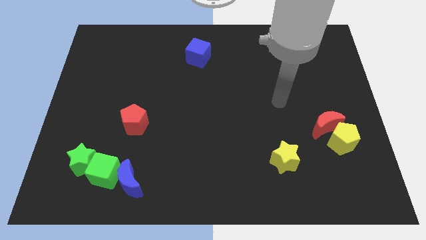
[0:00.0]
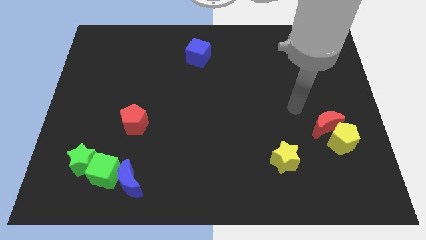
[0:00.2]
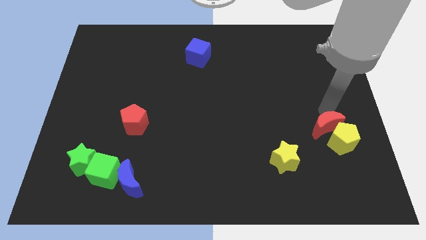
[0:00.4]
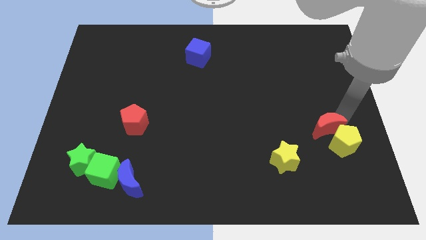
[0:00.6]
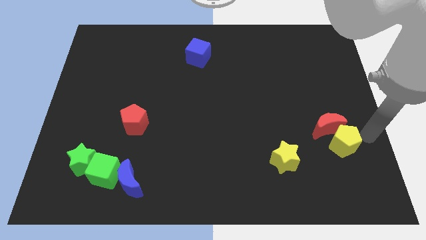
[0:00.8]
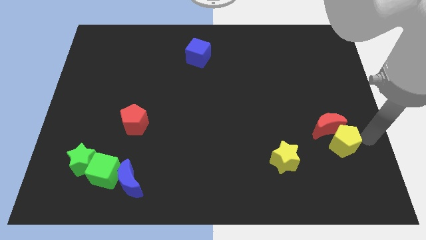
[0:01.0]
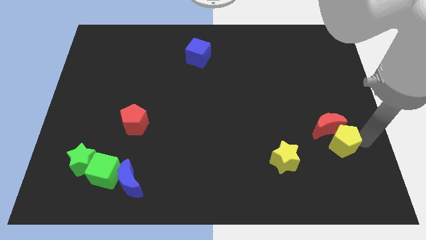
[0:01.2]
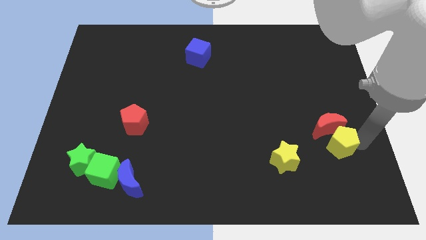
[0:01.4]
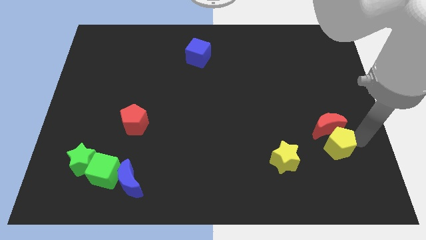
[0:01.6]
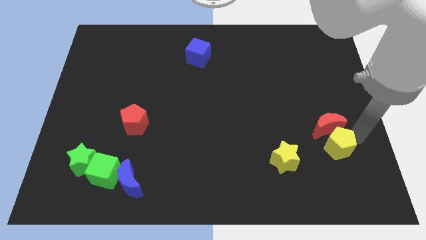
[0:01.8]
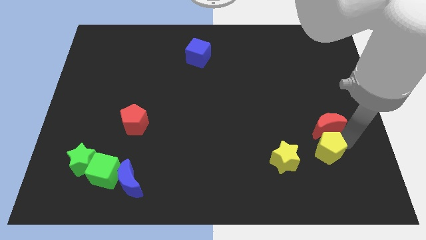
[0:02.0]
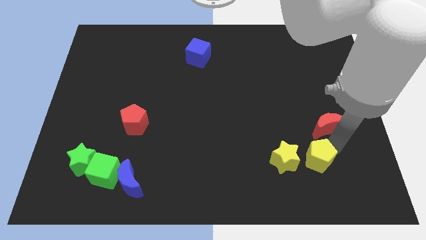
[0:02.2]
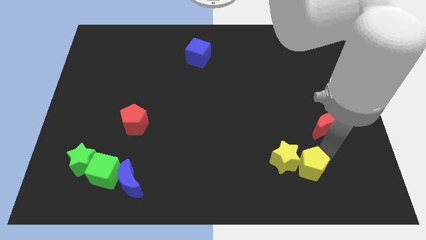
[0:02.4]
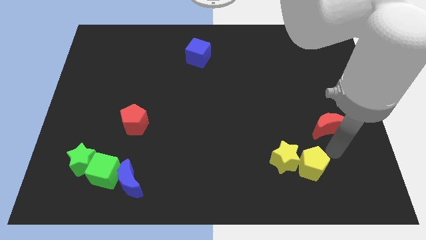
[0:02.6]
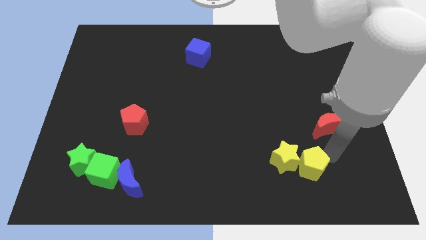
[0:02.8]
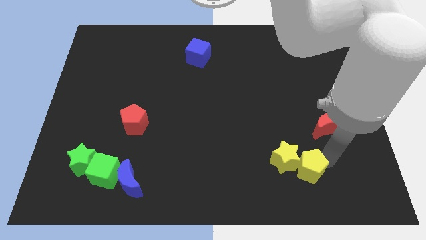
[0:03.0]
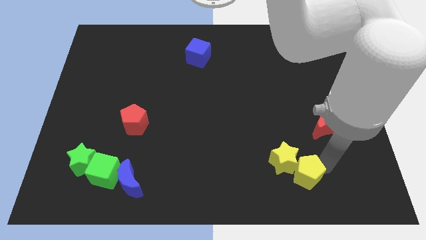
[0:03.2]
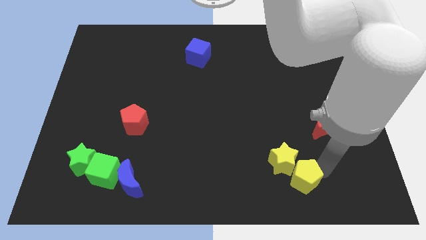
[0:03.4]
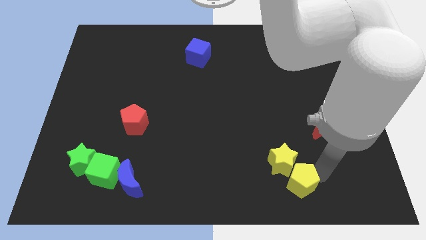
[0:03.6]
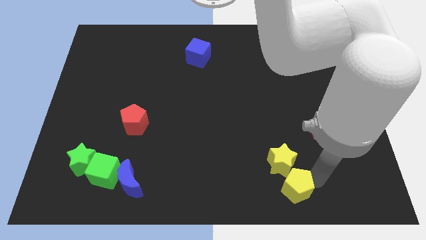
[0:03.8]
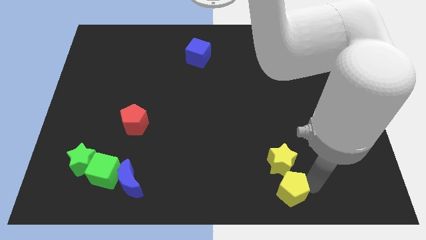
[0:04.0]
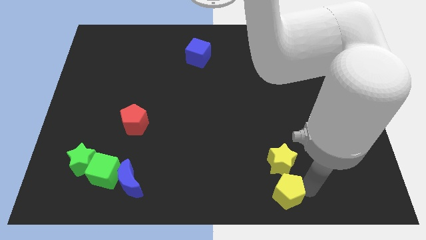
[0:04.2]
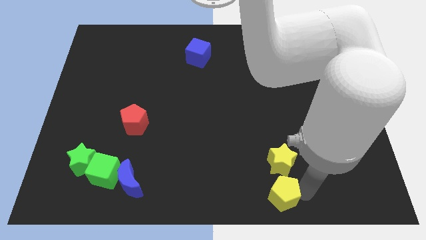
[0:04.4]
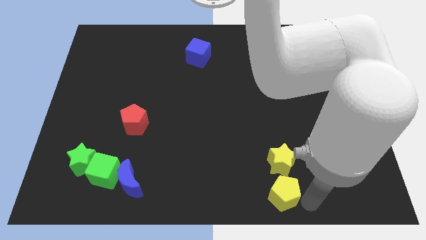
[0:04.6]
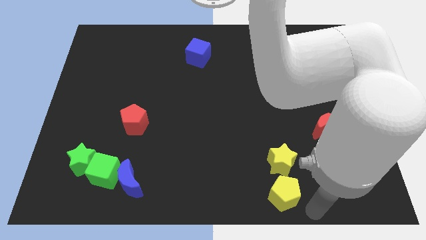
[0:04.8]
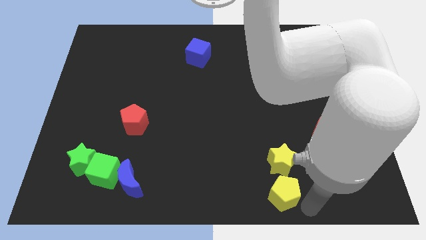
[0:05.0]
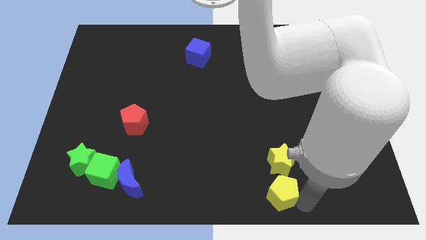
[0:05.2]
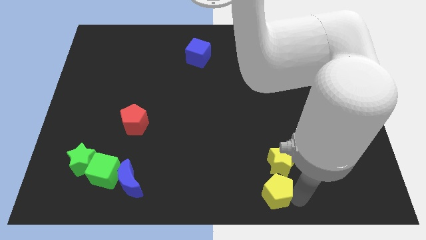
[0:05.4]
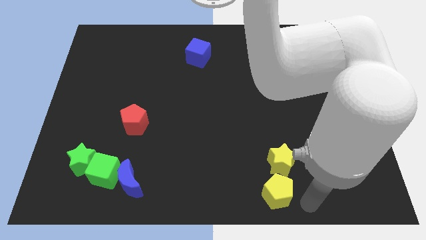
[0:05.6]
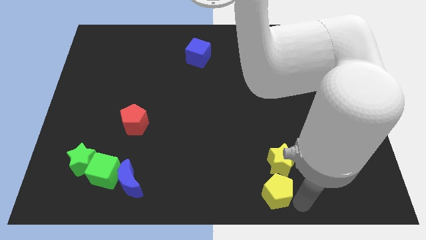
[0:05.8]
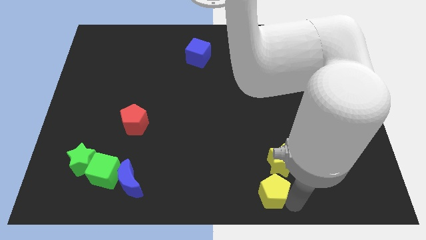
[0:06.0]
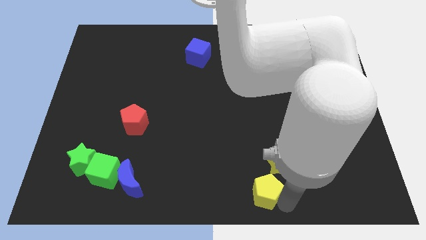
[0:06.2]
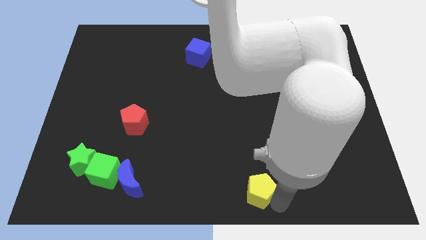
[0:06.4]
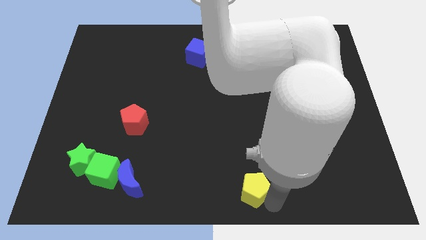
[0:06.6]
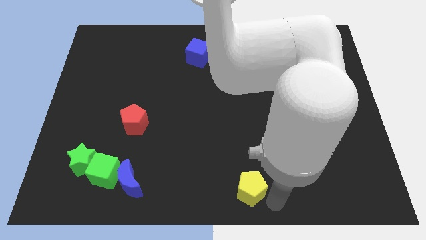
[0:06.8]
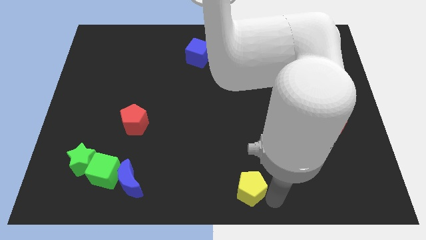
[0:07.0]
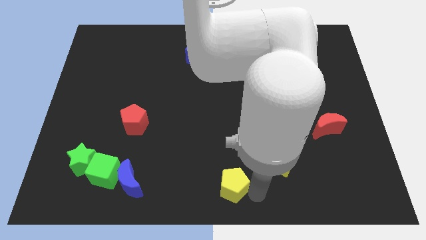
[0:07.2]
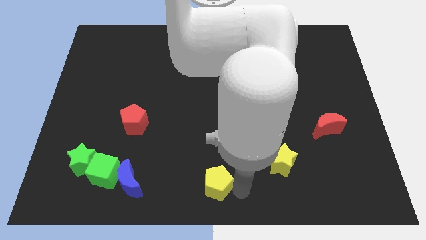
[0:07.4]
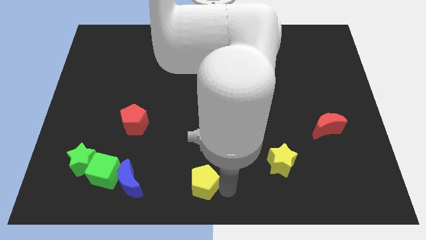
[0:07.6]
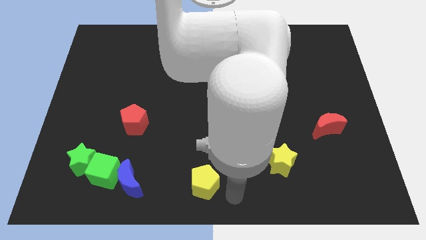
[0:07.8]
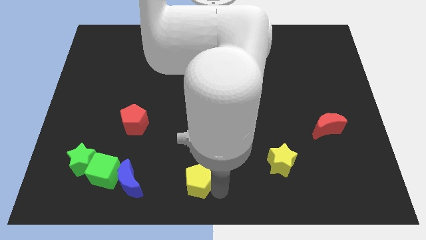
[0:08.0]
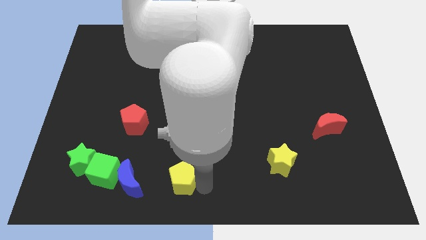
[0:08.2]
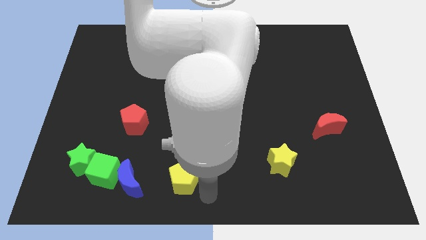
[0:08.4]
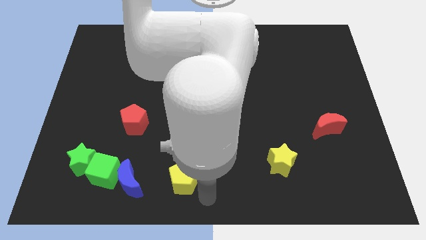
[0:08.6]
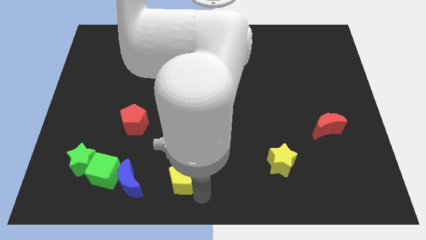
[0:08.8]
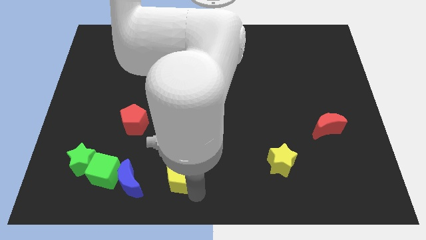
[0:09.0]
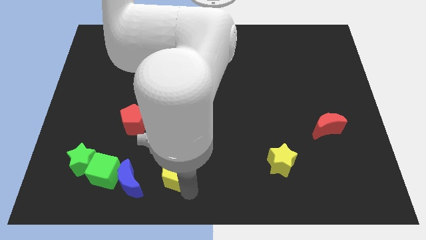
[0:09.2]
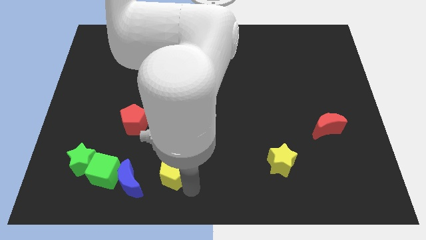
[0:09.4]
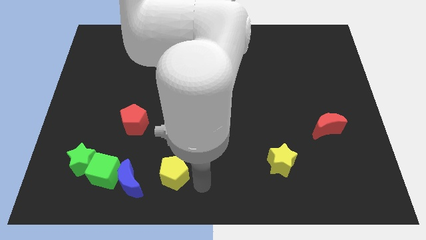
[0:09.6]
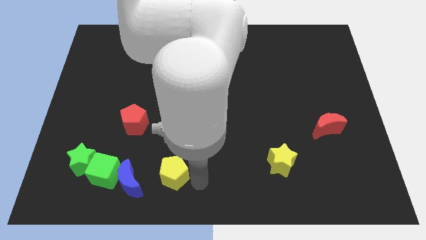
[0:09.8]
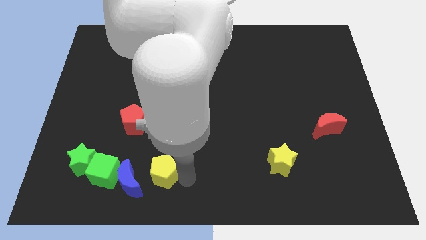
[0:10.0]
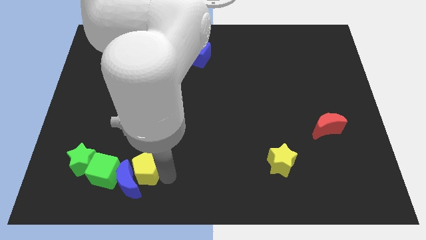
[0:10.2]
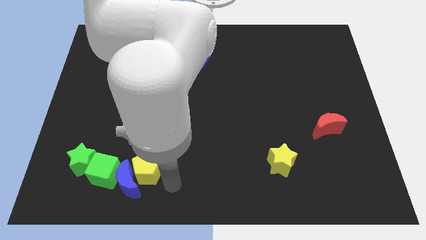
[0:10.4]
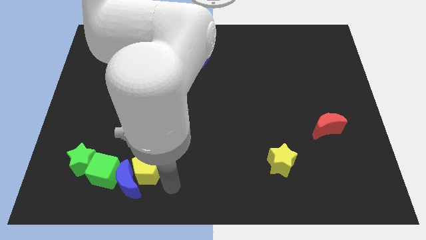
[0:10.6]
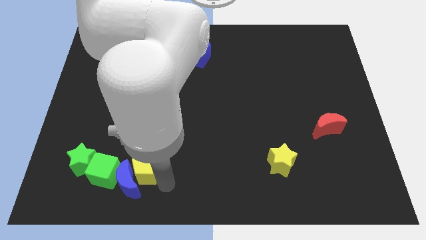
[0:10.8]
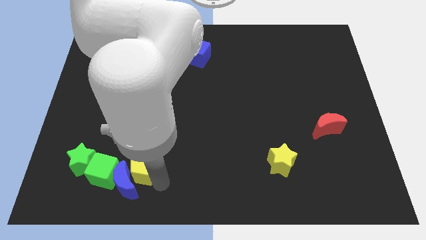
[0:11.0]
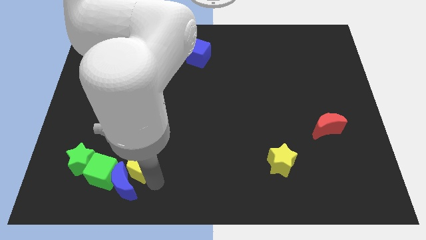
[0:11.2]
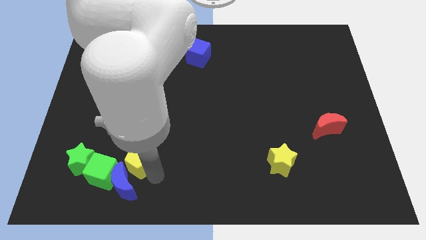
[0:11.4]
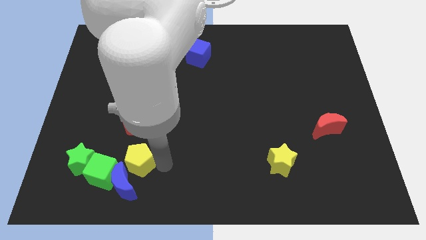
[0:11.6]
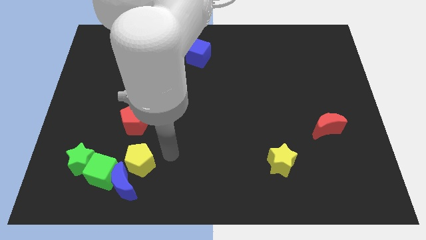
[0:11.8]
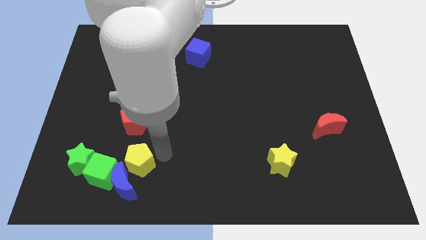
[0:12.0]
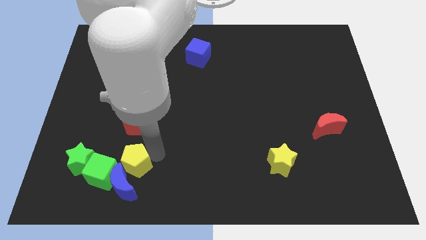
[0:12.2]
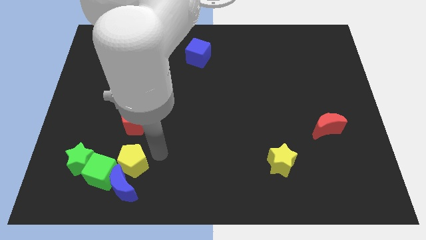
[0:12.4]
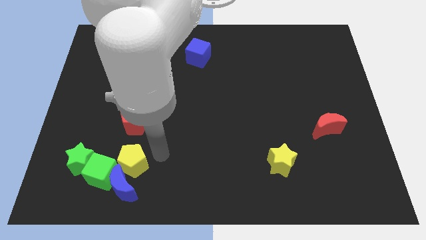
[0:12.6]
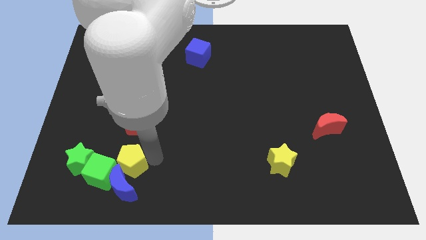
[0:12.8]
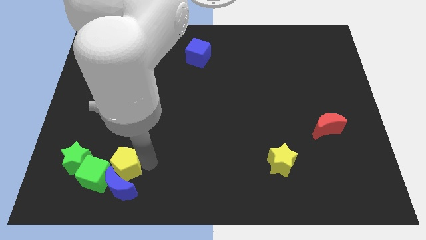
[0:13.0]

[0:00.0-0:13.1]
move the yellow pentagon to the green cube
